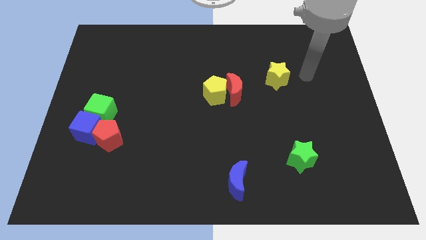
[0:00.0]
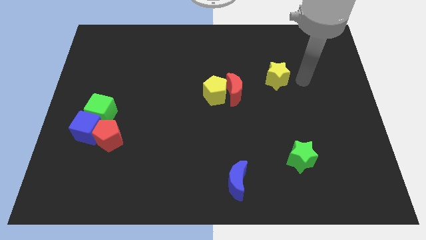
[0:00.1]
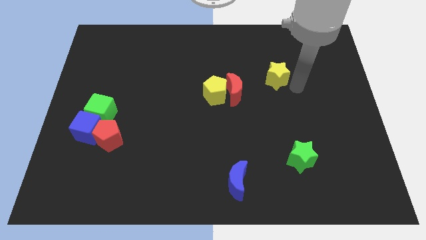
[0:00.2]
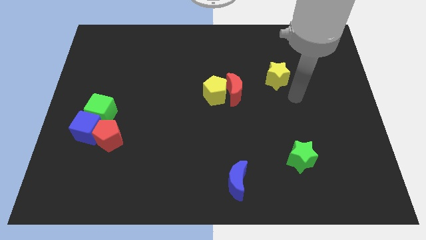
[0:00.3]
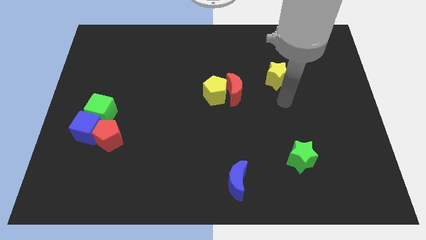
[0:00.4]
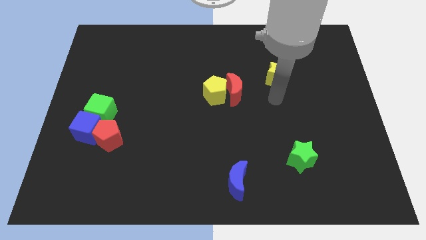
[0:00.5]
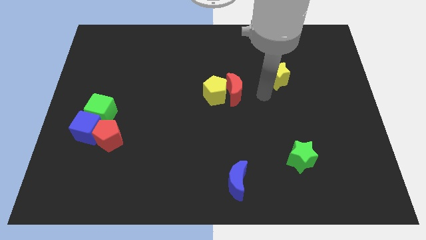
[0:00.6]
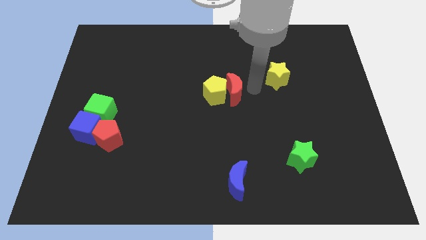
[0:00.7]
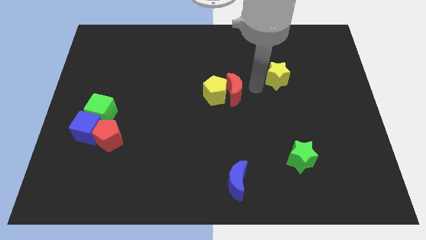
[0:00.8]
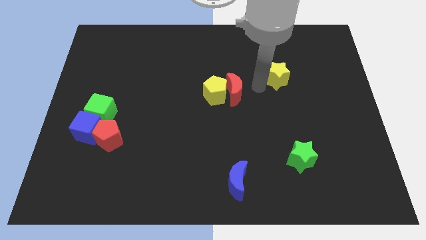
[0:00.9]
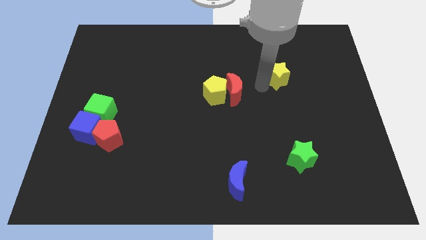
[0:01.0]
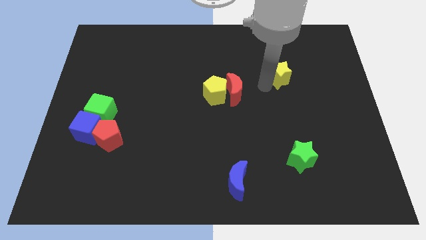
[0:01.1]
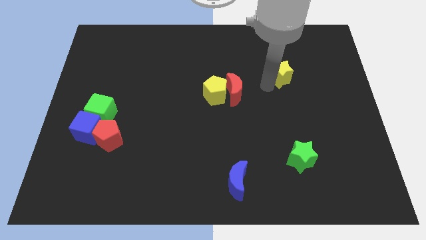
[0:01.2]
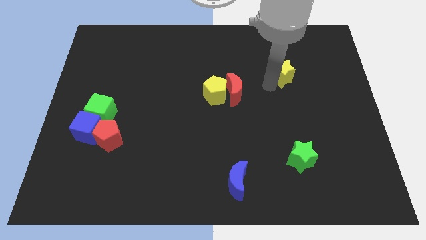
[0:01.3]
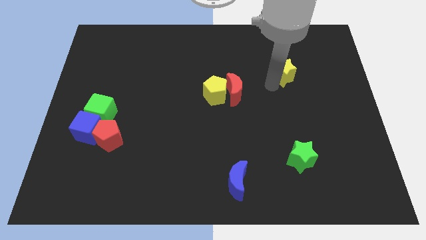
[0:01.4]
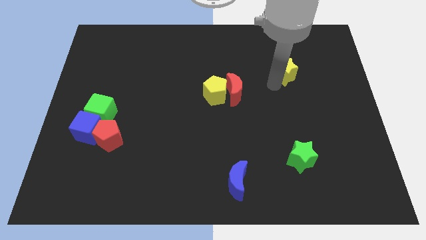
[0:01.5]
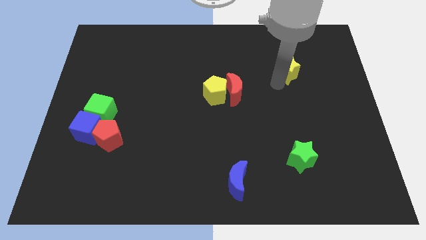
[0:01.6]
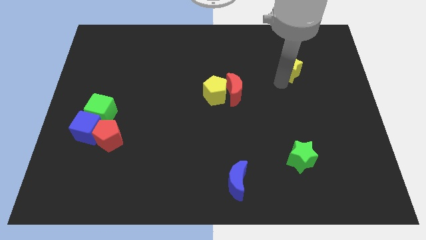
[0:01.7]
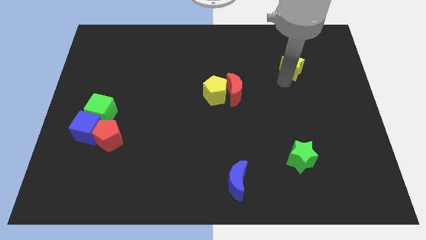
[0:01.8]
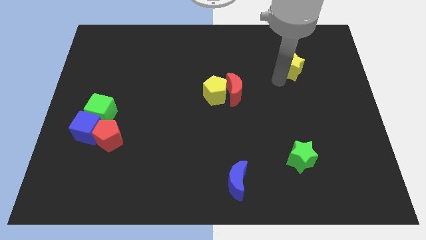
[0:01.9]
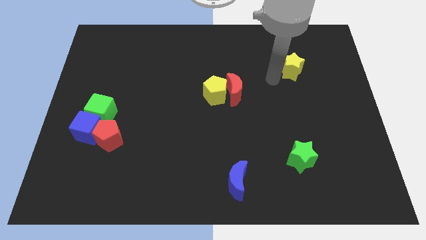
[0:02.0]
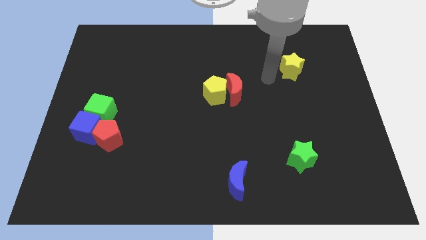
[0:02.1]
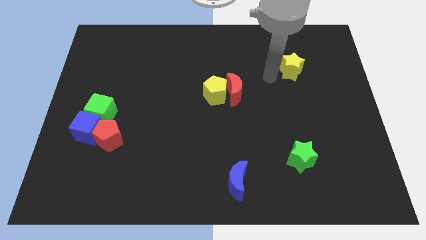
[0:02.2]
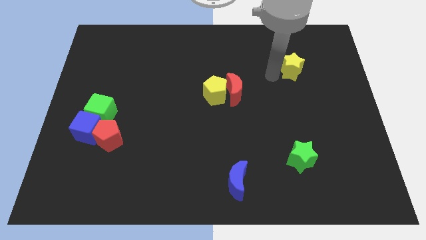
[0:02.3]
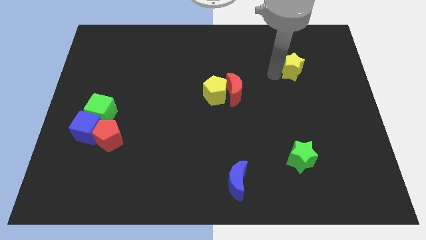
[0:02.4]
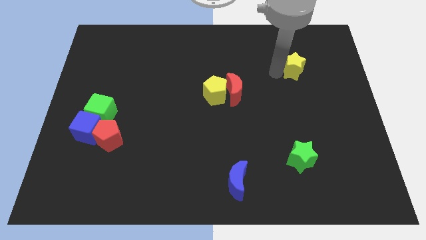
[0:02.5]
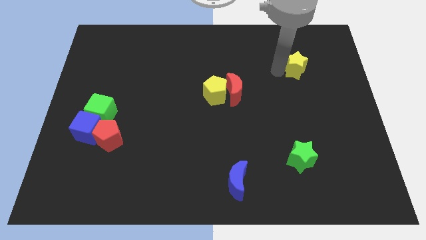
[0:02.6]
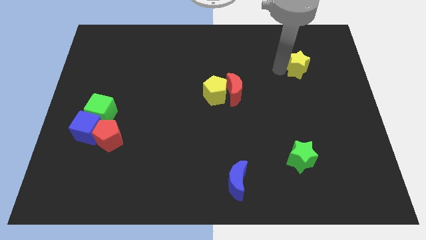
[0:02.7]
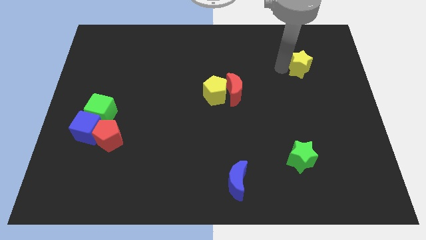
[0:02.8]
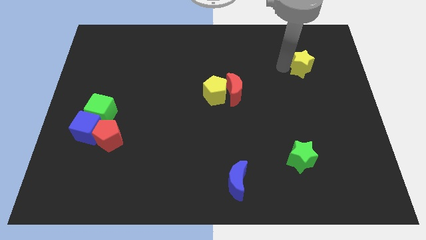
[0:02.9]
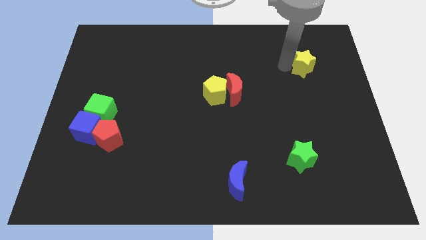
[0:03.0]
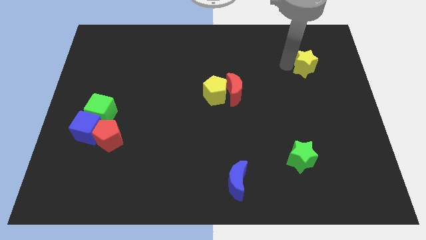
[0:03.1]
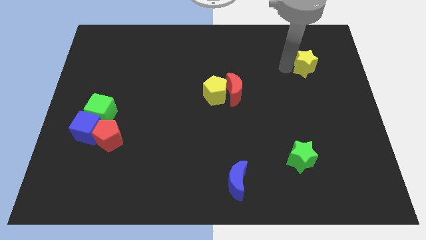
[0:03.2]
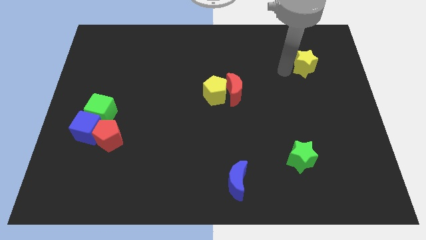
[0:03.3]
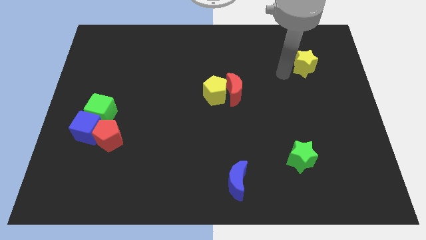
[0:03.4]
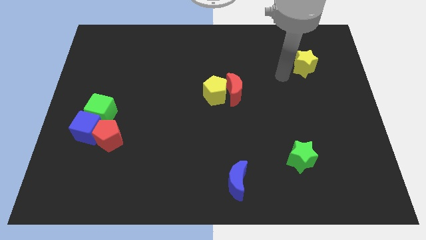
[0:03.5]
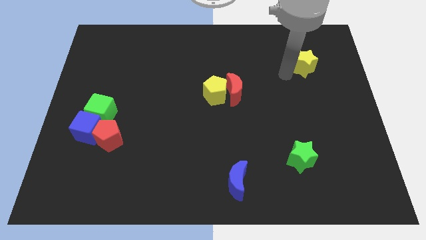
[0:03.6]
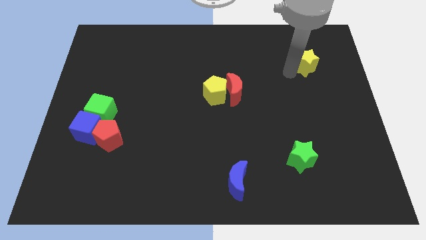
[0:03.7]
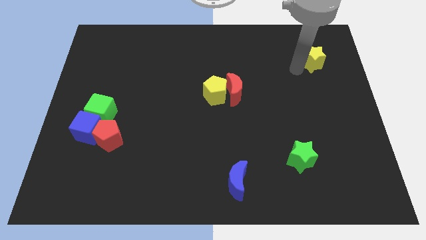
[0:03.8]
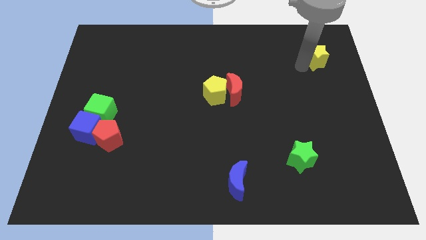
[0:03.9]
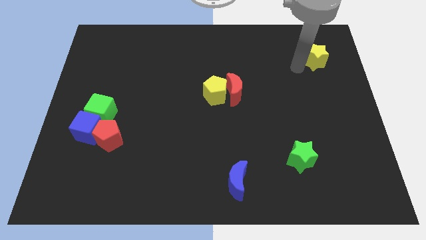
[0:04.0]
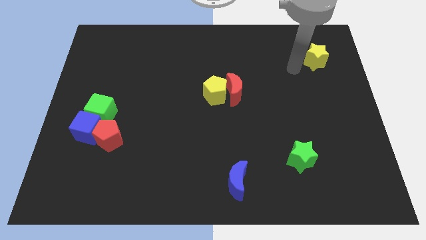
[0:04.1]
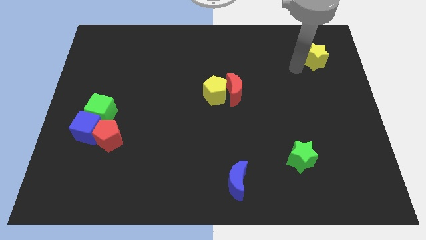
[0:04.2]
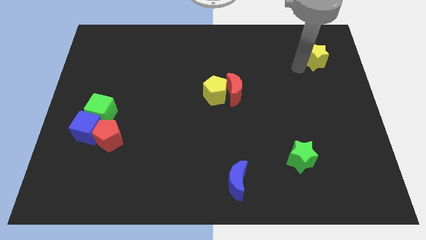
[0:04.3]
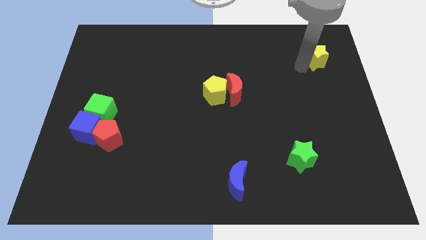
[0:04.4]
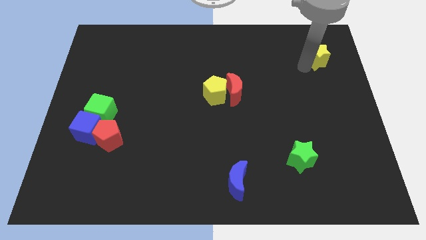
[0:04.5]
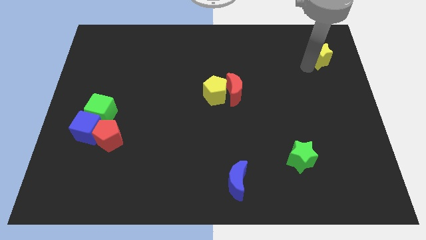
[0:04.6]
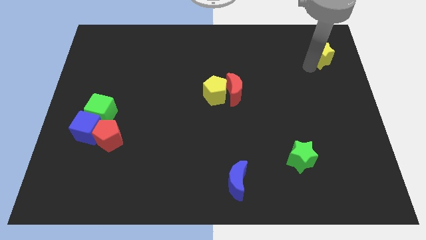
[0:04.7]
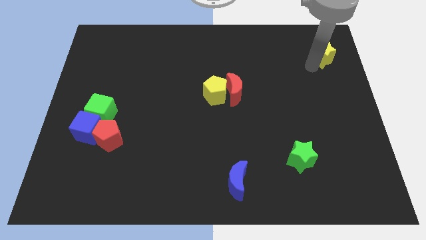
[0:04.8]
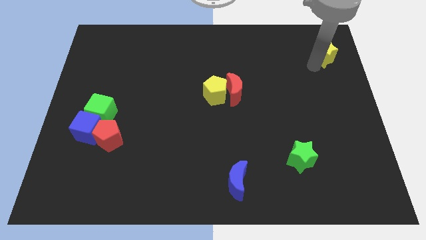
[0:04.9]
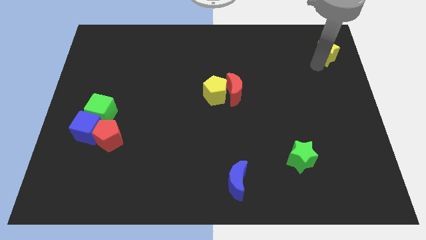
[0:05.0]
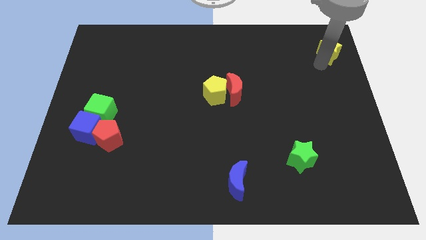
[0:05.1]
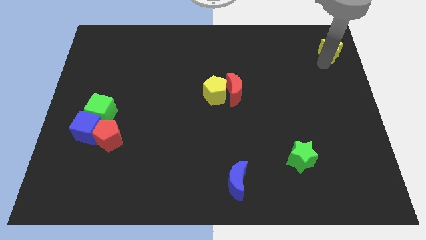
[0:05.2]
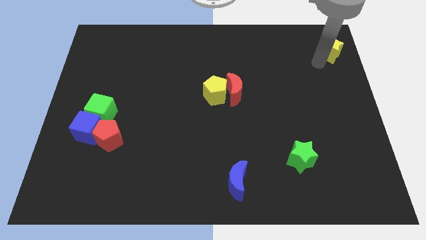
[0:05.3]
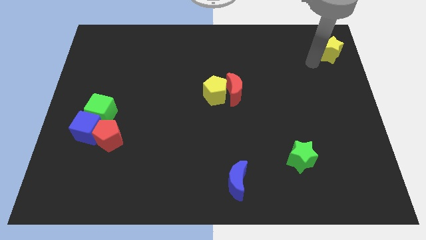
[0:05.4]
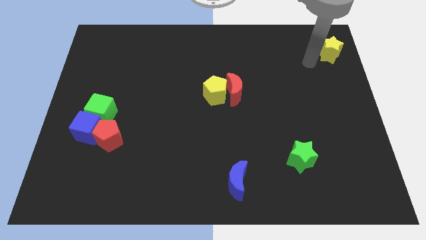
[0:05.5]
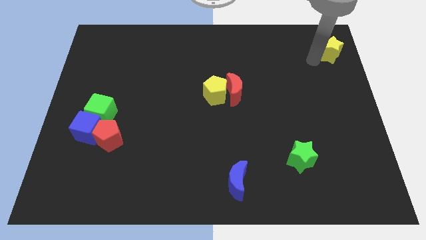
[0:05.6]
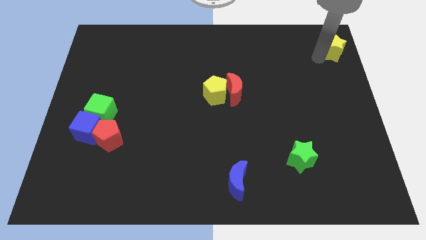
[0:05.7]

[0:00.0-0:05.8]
move the yellow star to the upper right corner

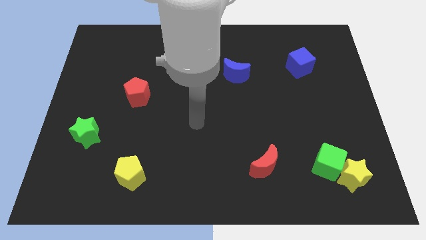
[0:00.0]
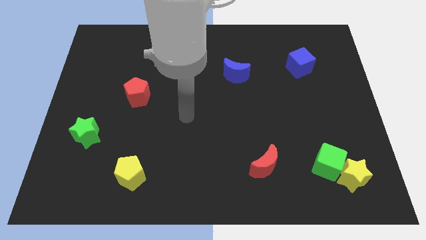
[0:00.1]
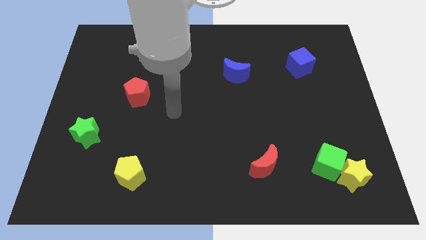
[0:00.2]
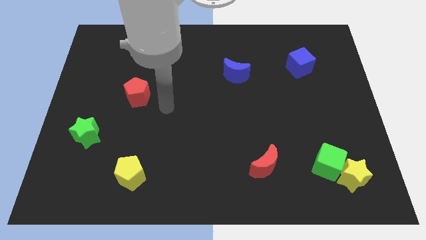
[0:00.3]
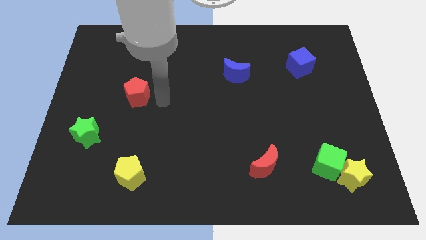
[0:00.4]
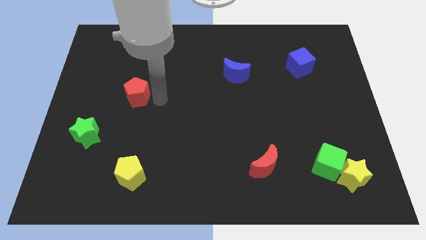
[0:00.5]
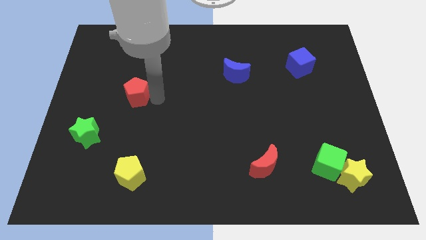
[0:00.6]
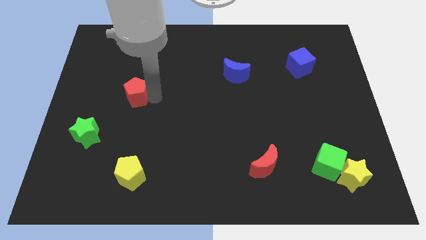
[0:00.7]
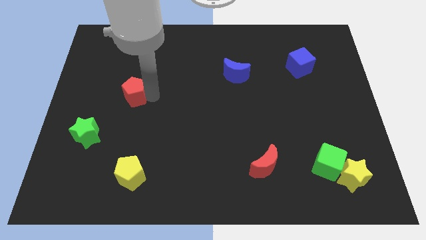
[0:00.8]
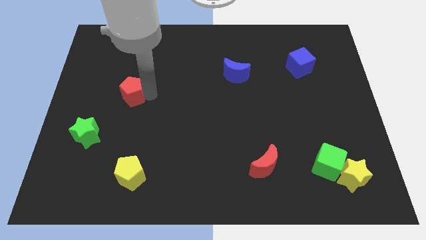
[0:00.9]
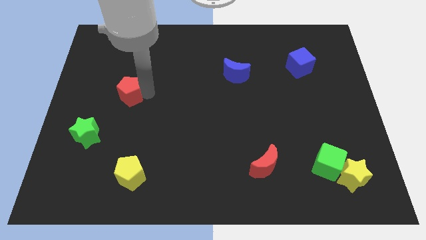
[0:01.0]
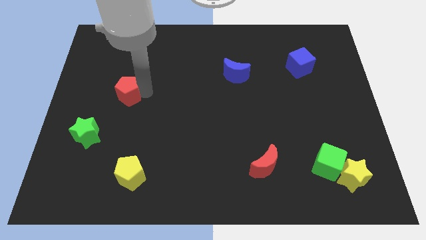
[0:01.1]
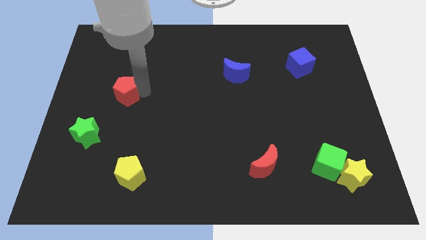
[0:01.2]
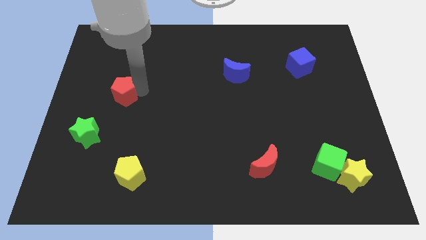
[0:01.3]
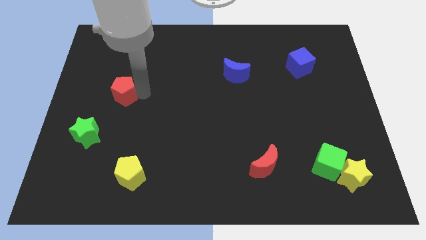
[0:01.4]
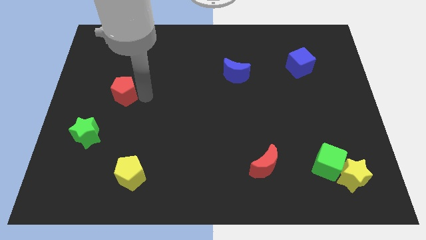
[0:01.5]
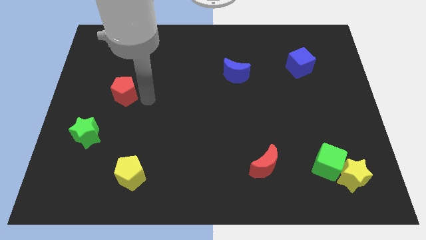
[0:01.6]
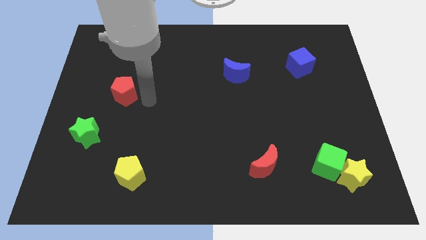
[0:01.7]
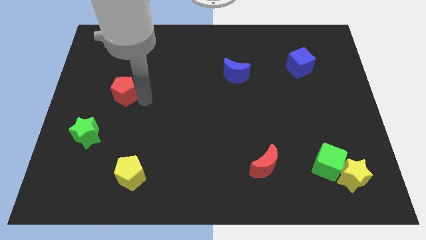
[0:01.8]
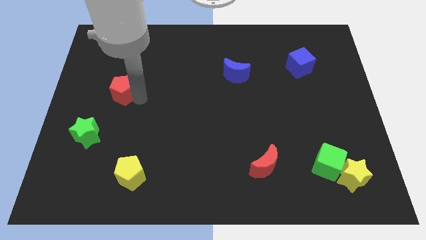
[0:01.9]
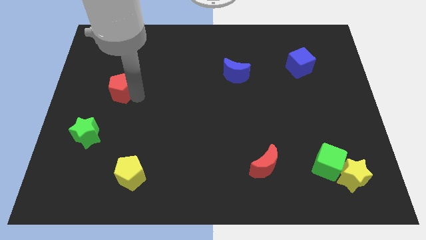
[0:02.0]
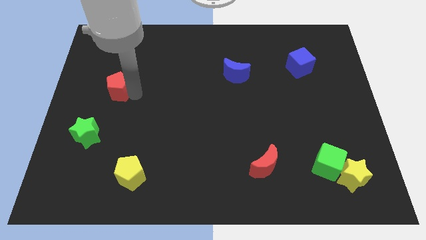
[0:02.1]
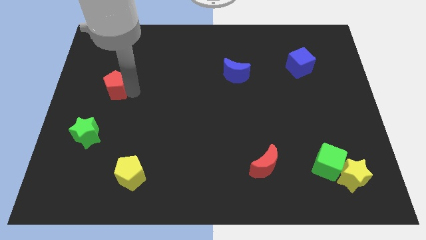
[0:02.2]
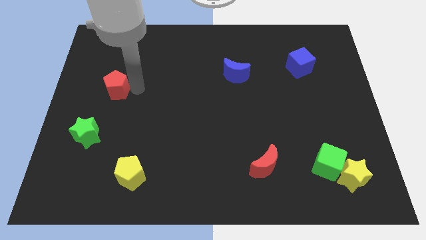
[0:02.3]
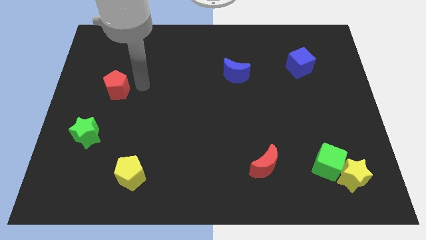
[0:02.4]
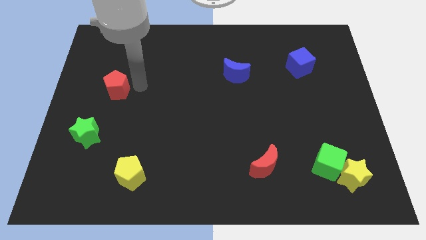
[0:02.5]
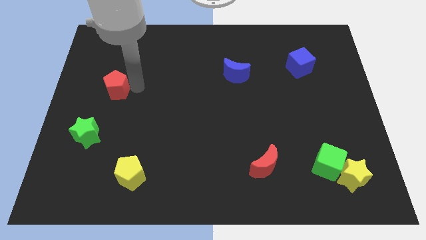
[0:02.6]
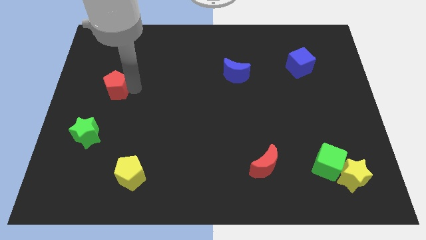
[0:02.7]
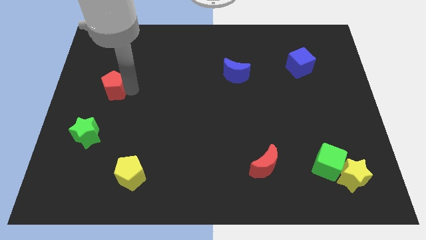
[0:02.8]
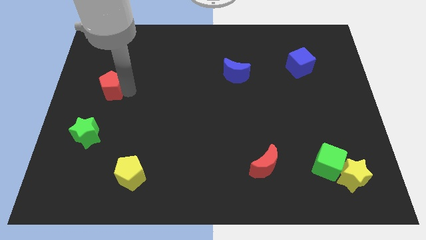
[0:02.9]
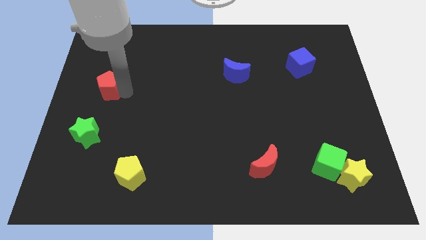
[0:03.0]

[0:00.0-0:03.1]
put the red pentagon to the left side of the board
